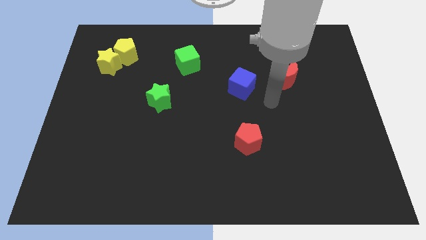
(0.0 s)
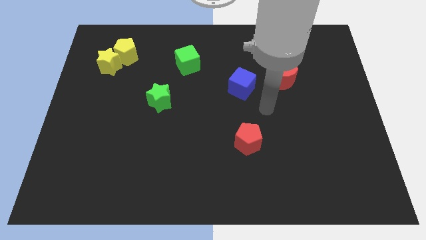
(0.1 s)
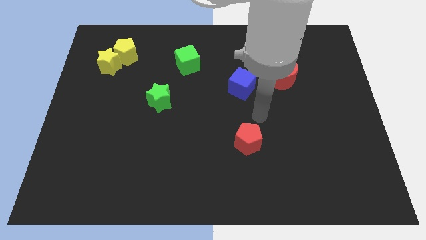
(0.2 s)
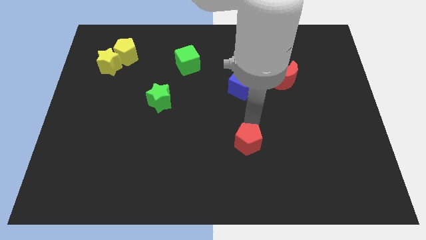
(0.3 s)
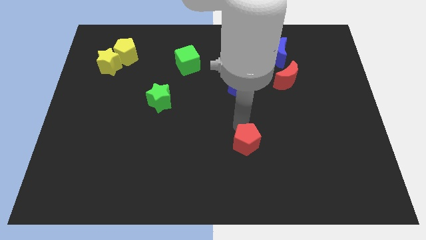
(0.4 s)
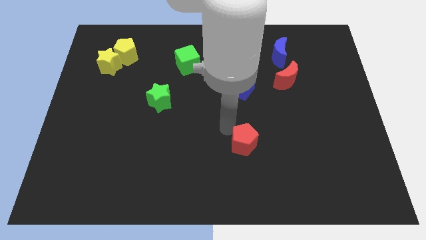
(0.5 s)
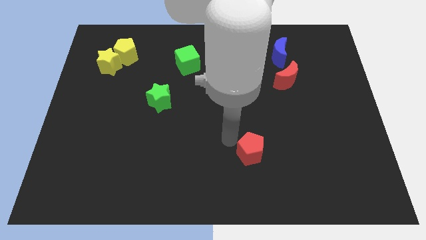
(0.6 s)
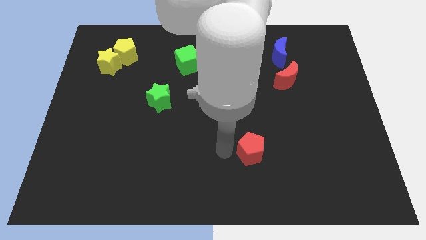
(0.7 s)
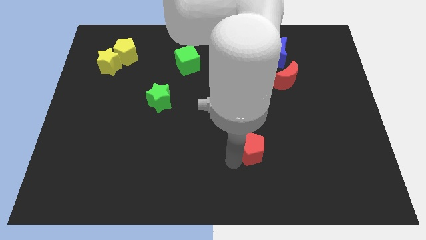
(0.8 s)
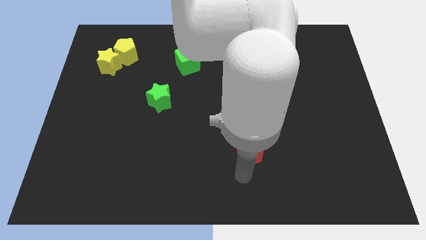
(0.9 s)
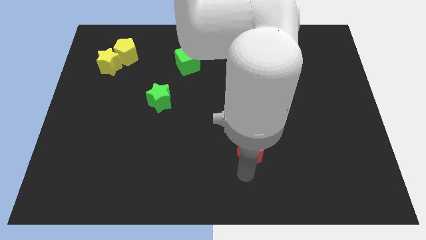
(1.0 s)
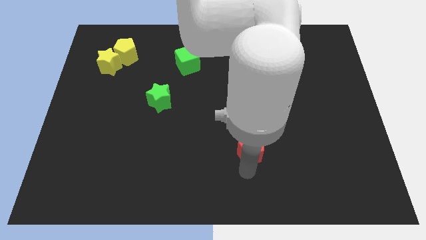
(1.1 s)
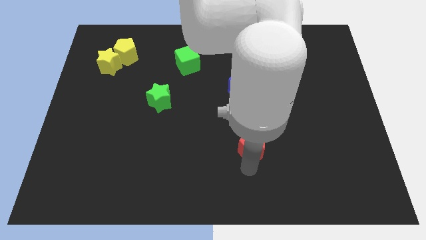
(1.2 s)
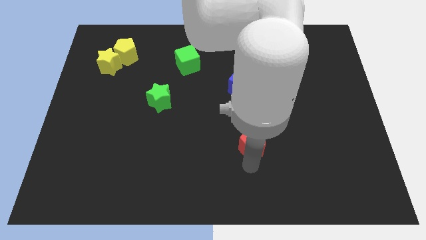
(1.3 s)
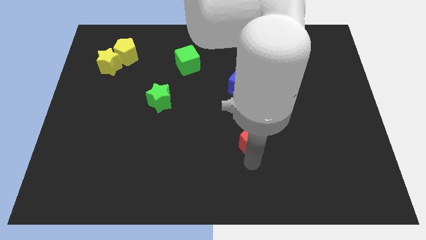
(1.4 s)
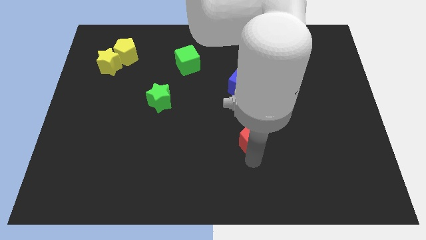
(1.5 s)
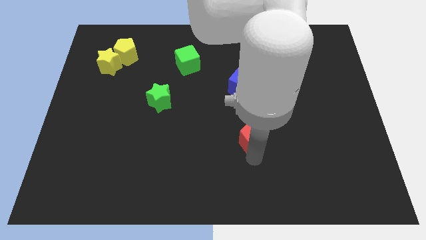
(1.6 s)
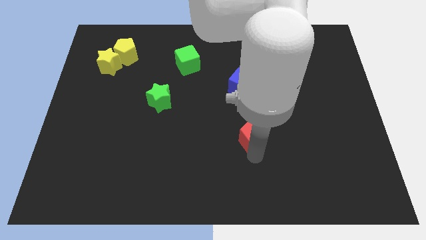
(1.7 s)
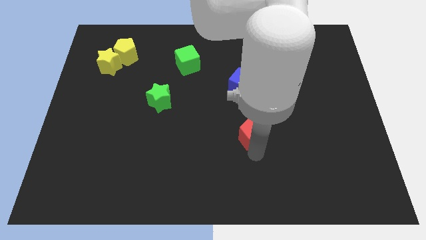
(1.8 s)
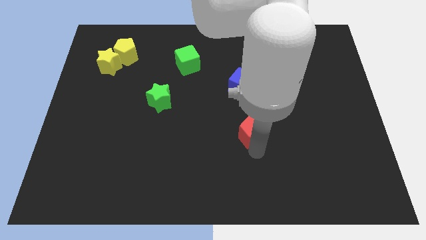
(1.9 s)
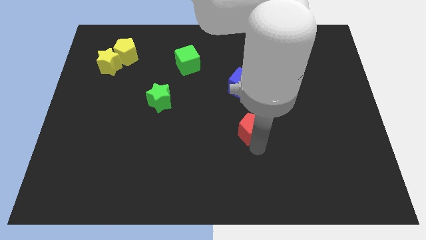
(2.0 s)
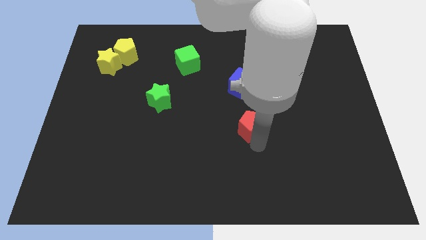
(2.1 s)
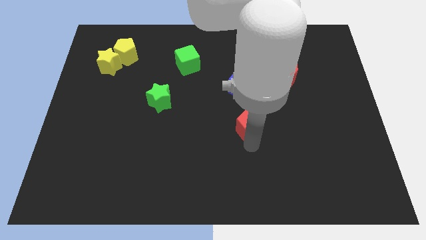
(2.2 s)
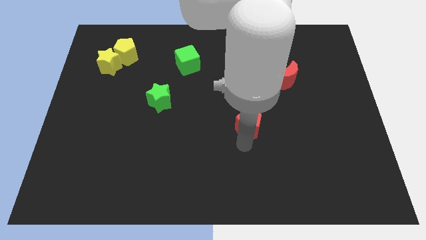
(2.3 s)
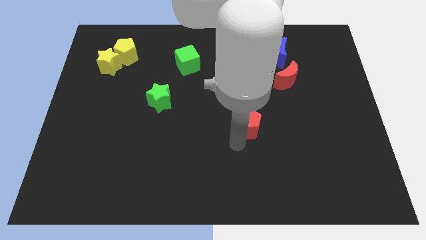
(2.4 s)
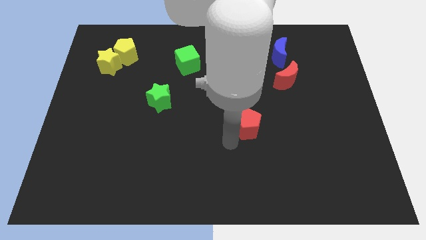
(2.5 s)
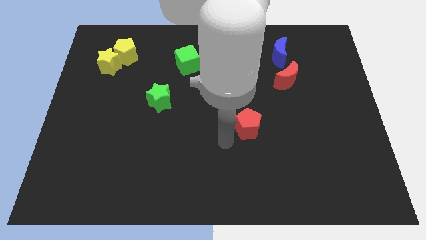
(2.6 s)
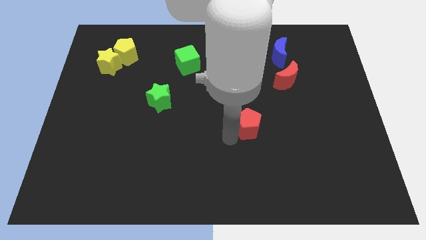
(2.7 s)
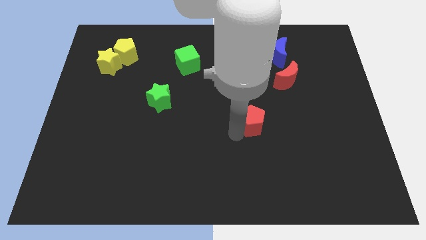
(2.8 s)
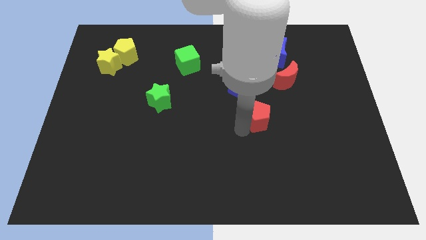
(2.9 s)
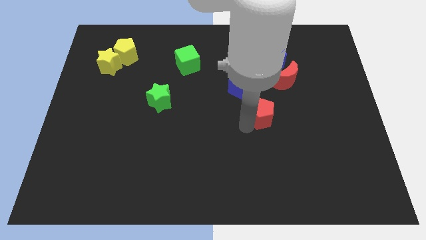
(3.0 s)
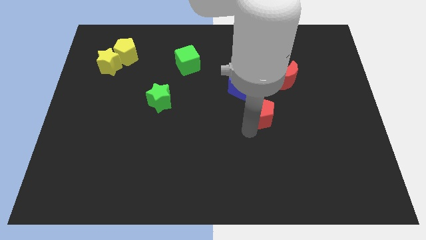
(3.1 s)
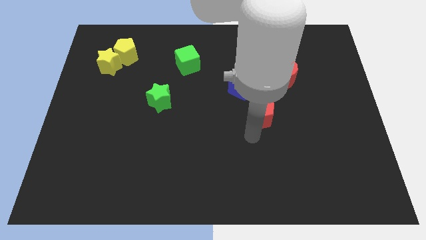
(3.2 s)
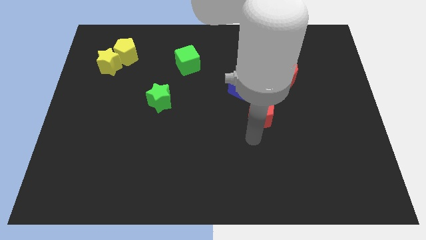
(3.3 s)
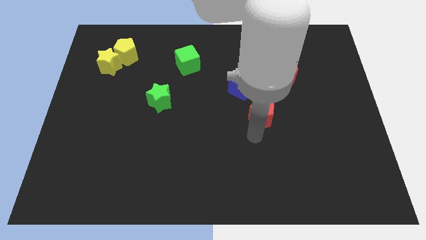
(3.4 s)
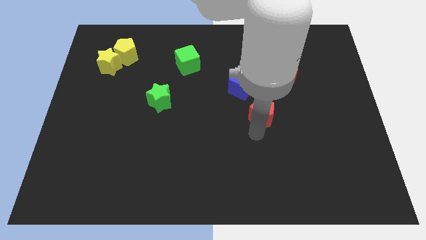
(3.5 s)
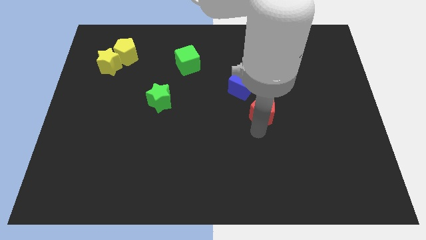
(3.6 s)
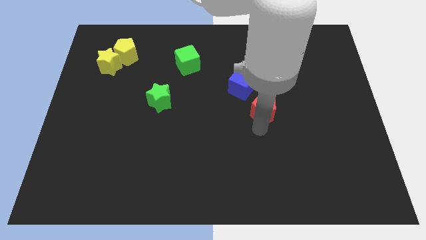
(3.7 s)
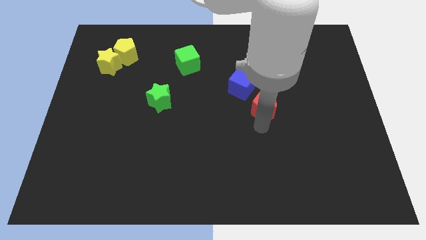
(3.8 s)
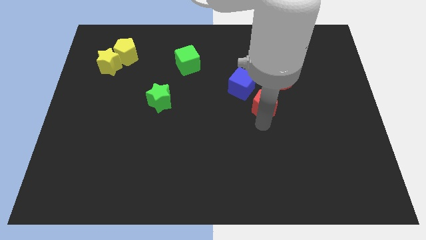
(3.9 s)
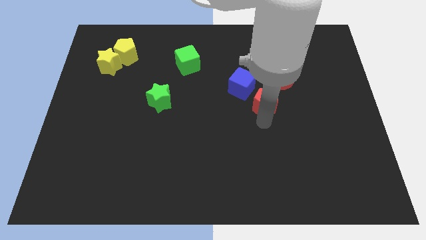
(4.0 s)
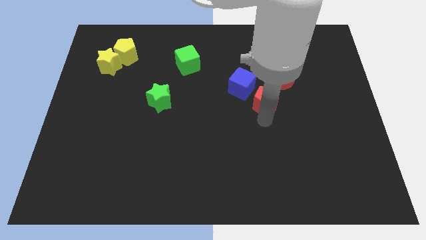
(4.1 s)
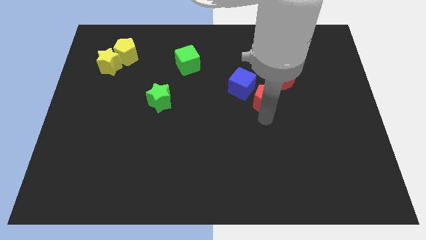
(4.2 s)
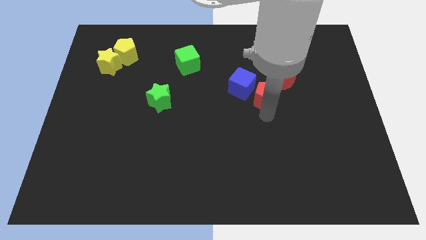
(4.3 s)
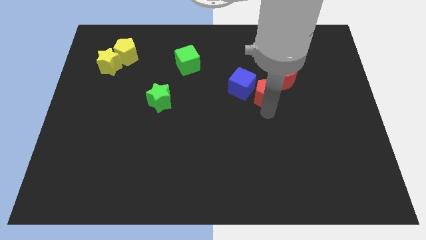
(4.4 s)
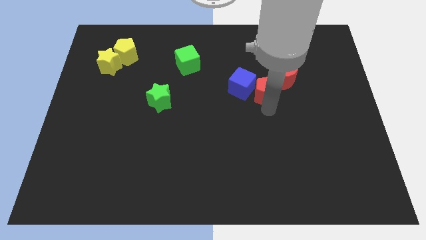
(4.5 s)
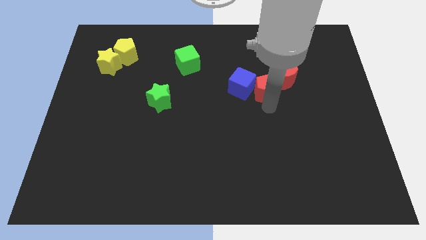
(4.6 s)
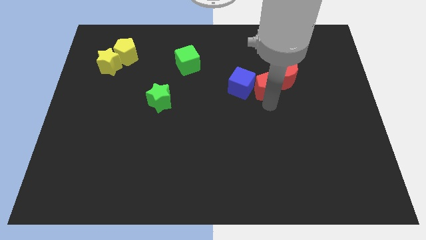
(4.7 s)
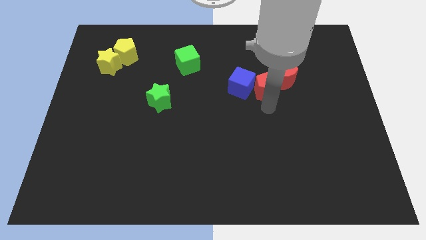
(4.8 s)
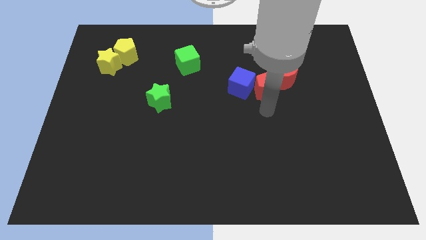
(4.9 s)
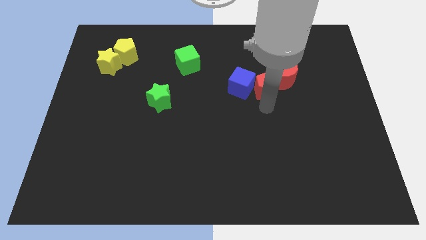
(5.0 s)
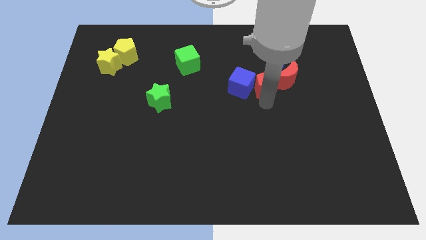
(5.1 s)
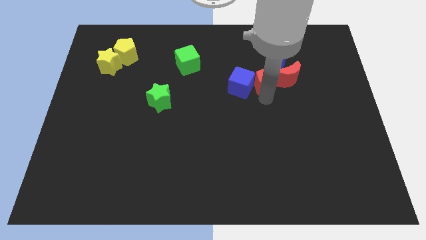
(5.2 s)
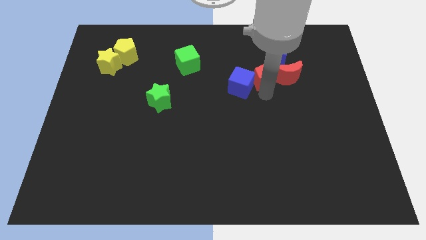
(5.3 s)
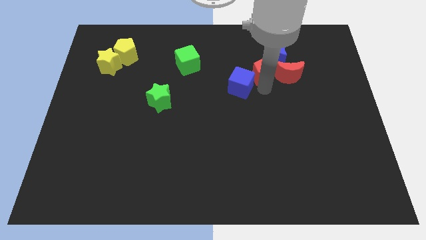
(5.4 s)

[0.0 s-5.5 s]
put the red pentagon to the top left side of the red moon

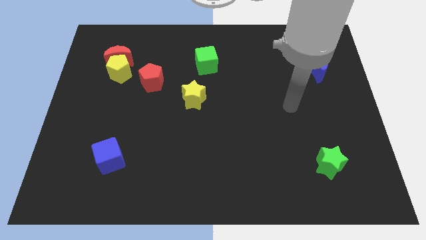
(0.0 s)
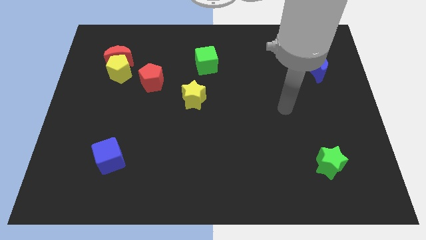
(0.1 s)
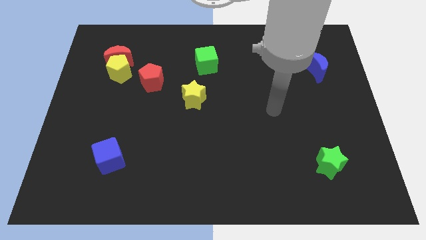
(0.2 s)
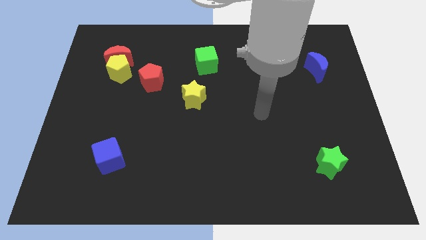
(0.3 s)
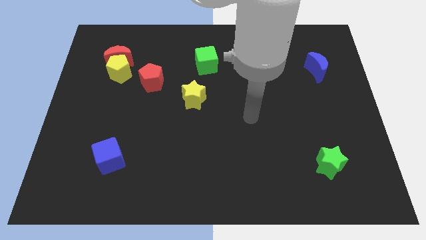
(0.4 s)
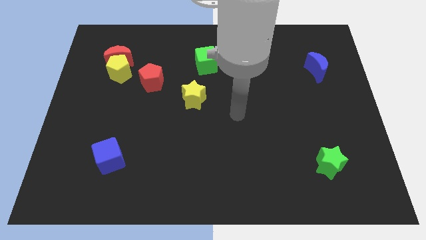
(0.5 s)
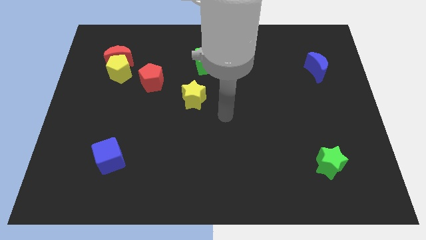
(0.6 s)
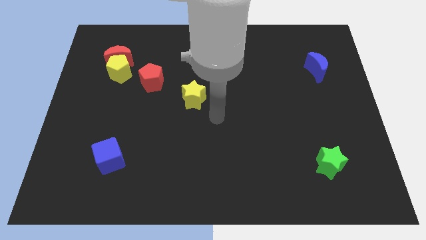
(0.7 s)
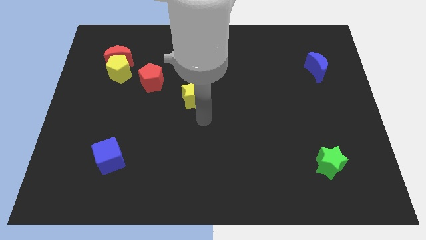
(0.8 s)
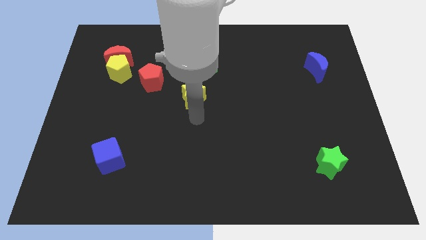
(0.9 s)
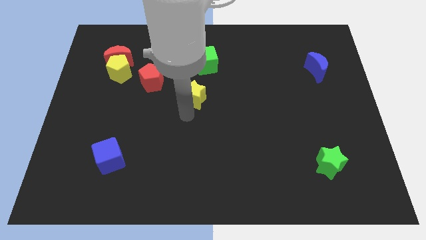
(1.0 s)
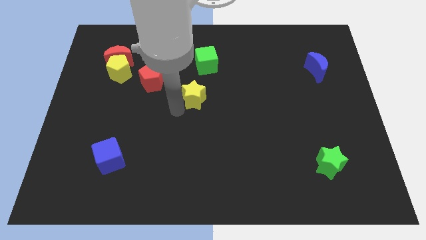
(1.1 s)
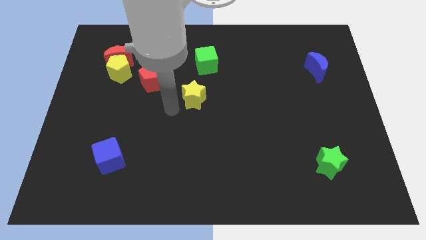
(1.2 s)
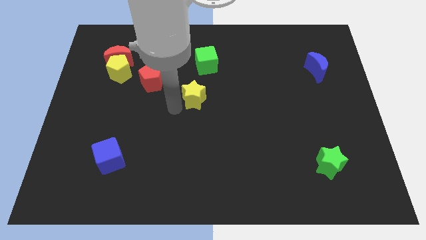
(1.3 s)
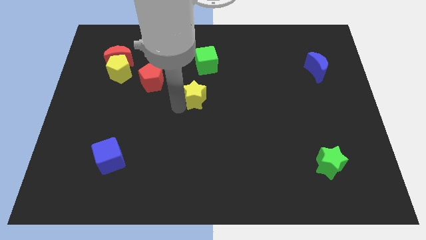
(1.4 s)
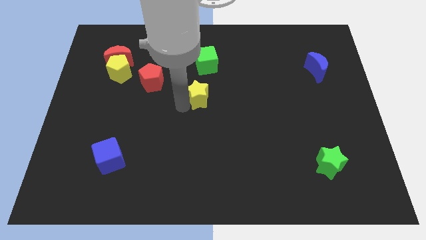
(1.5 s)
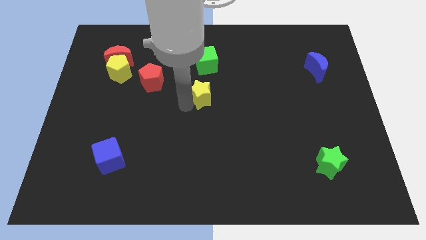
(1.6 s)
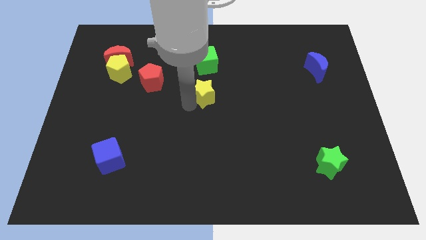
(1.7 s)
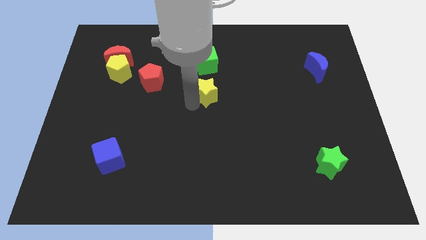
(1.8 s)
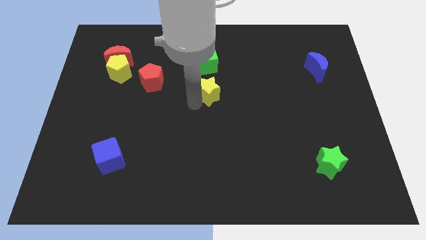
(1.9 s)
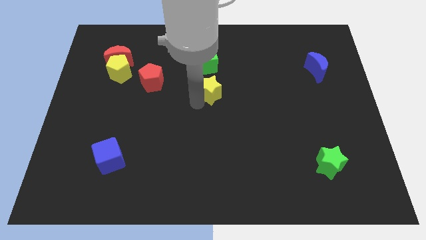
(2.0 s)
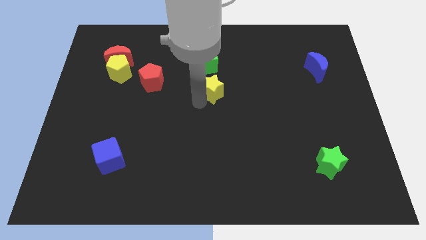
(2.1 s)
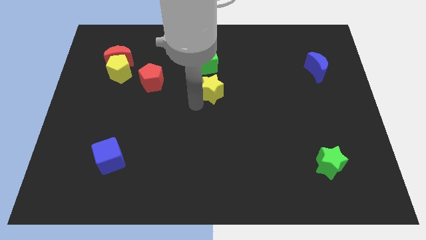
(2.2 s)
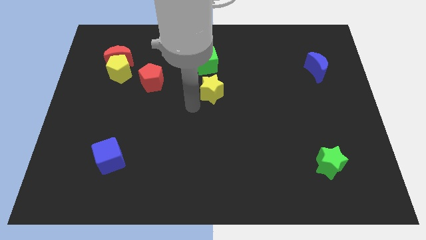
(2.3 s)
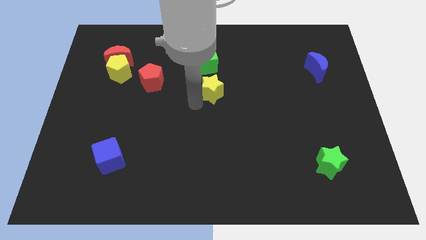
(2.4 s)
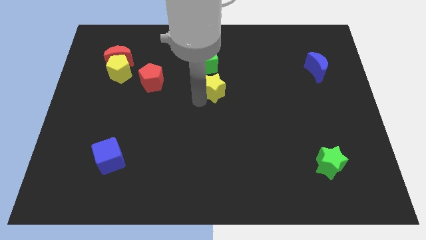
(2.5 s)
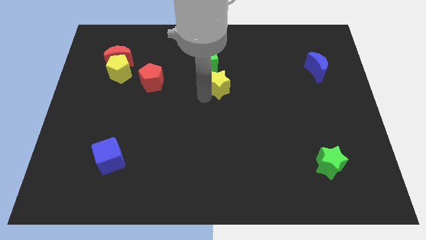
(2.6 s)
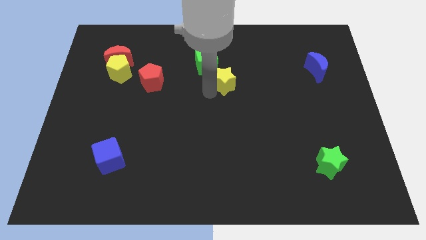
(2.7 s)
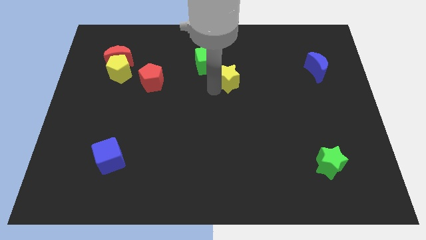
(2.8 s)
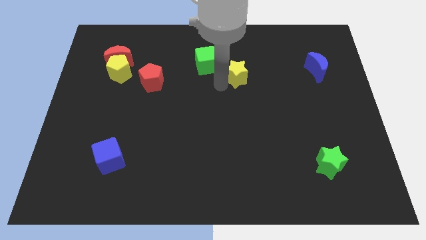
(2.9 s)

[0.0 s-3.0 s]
push the yellow star to the right of the green cube
